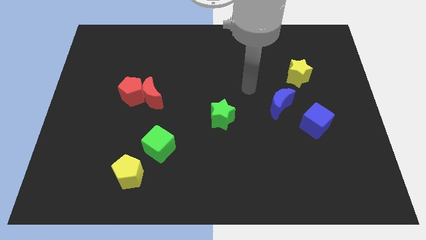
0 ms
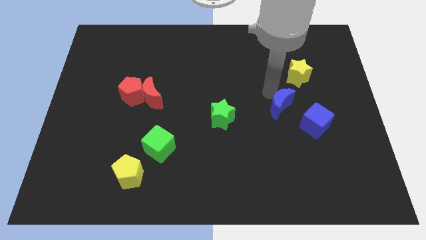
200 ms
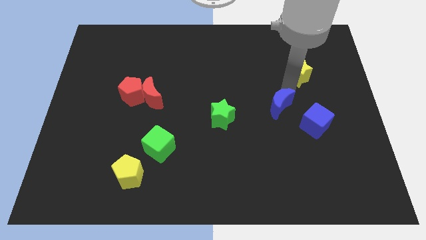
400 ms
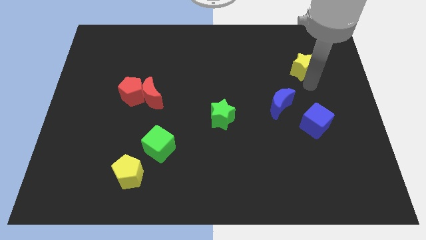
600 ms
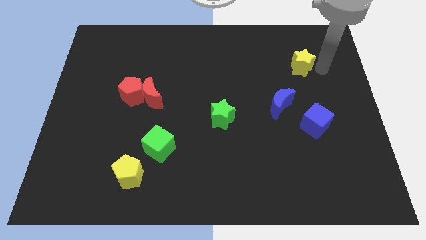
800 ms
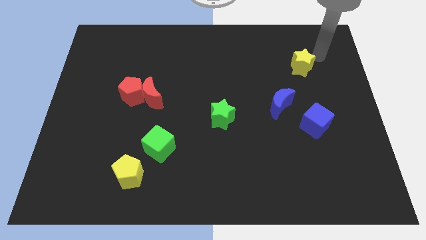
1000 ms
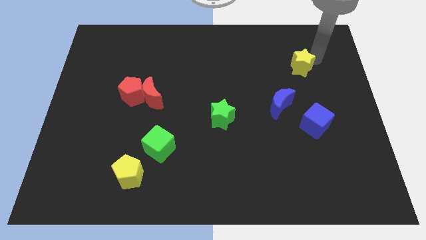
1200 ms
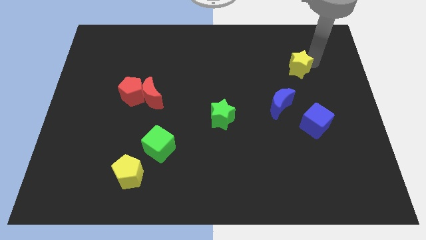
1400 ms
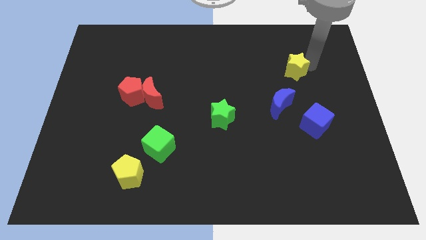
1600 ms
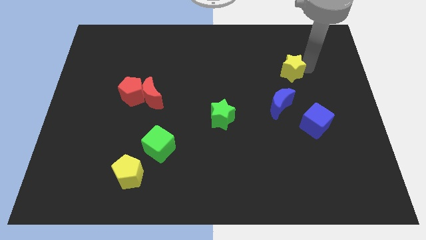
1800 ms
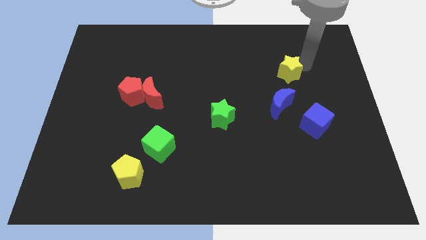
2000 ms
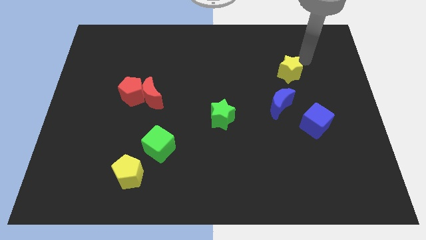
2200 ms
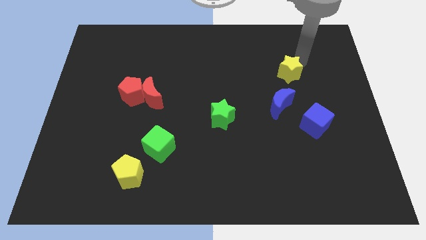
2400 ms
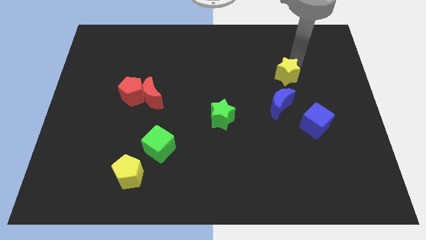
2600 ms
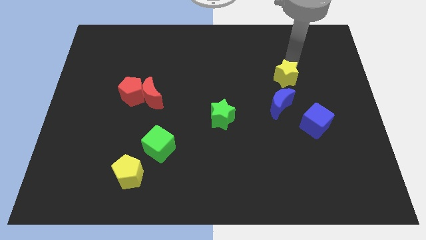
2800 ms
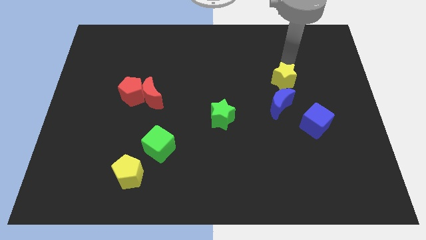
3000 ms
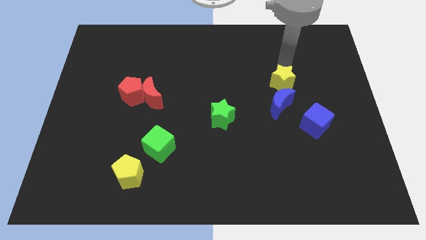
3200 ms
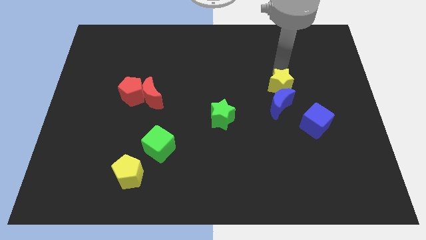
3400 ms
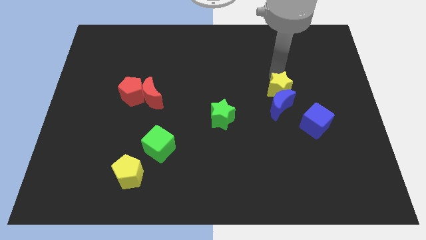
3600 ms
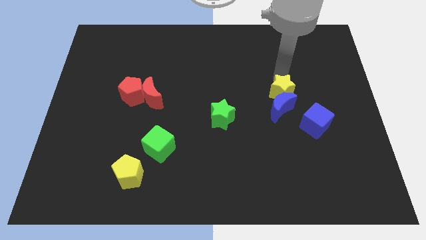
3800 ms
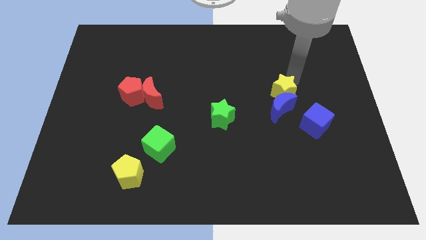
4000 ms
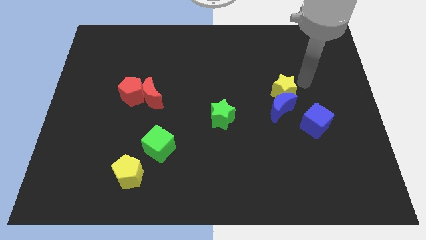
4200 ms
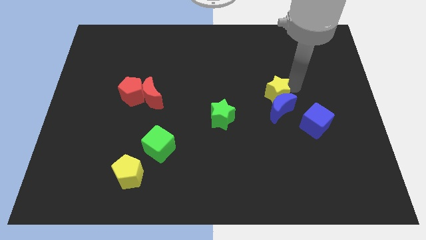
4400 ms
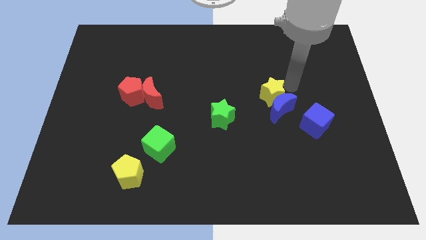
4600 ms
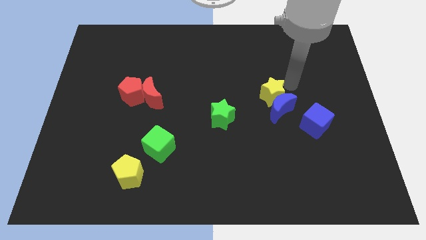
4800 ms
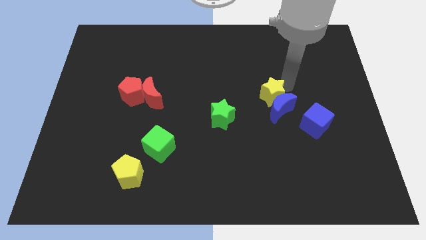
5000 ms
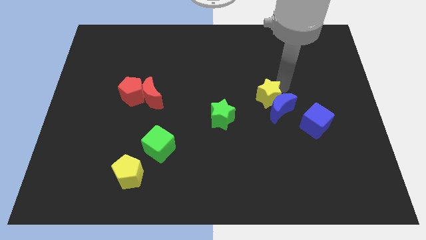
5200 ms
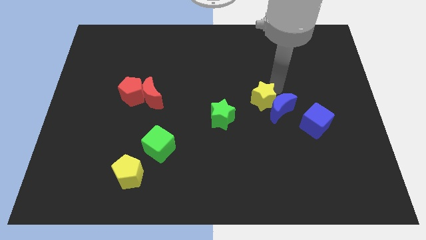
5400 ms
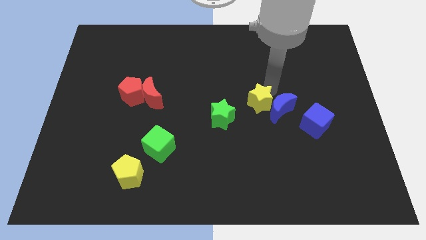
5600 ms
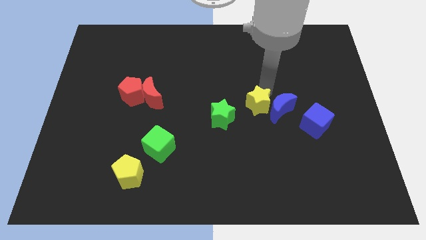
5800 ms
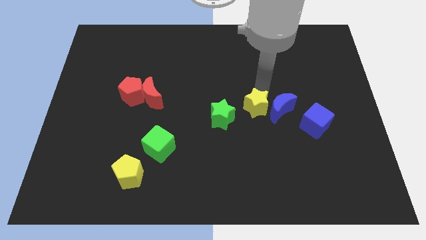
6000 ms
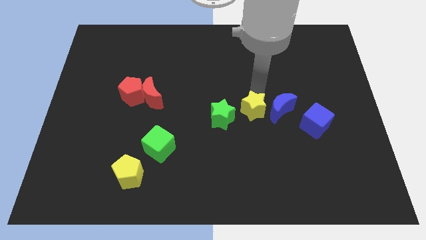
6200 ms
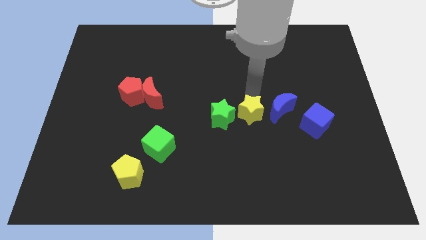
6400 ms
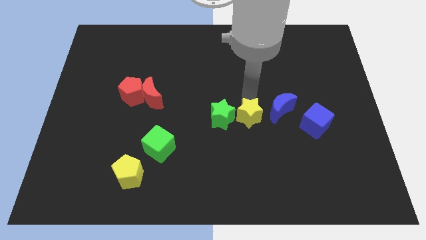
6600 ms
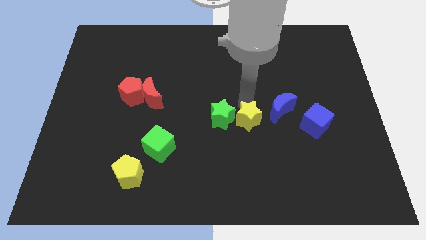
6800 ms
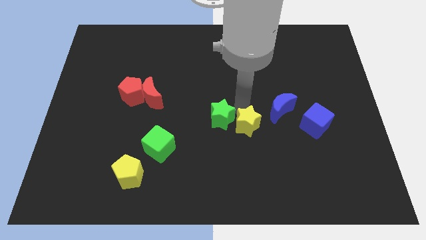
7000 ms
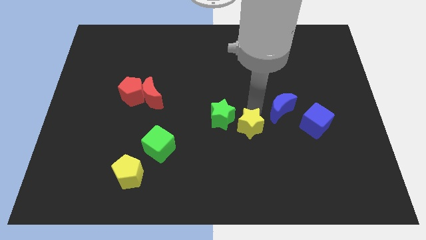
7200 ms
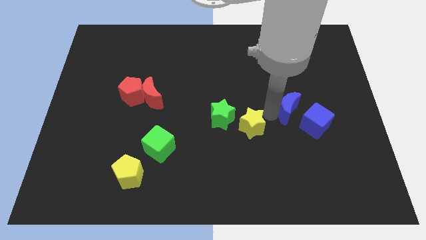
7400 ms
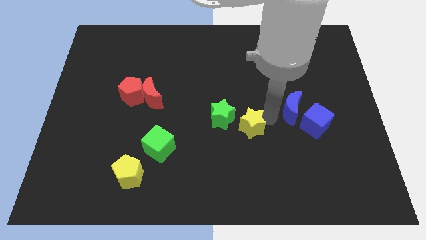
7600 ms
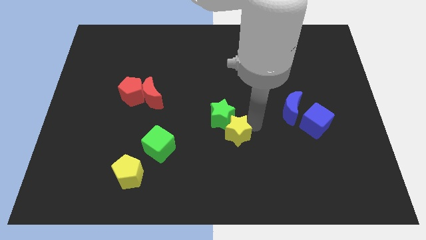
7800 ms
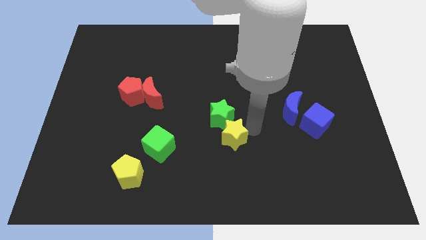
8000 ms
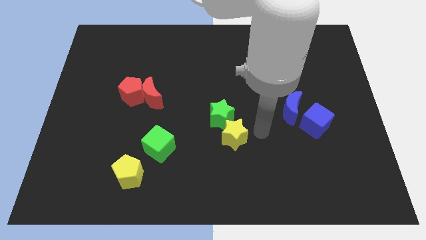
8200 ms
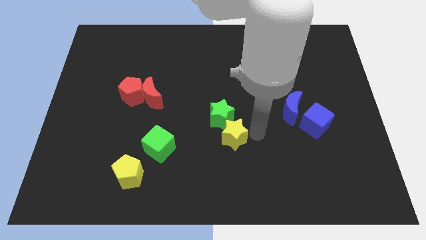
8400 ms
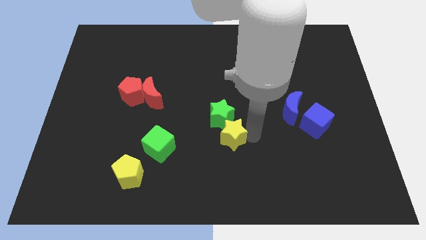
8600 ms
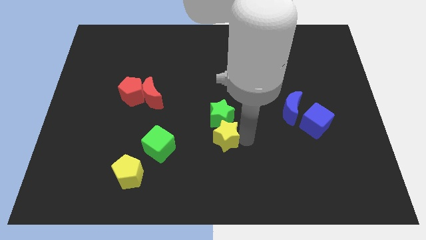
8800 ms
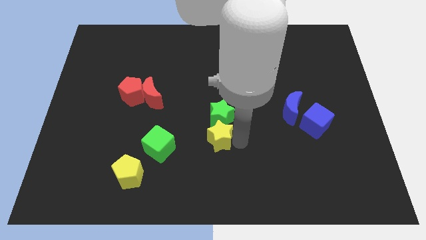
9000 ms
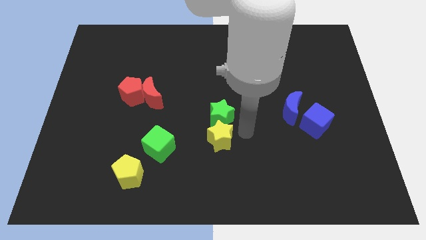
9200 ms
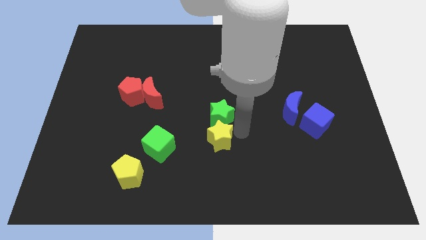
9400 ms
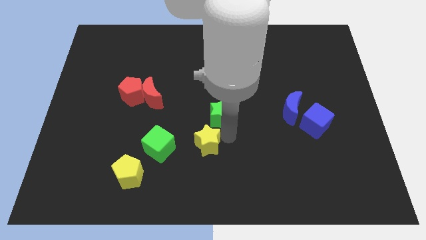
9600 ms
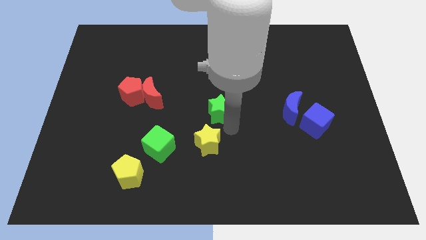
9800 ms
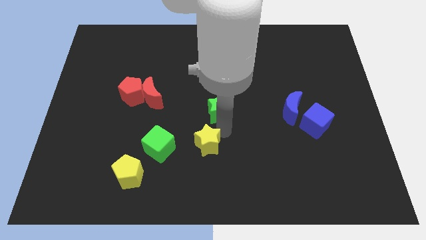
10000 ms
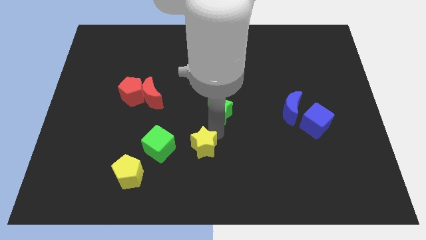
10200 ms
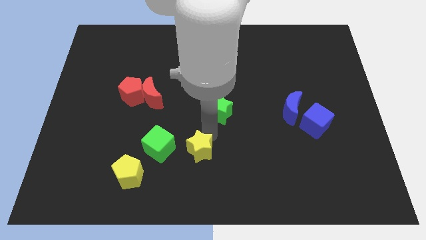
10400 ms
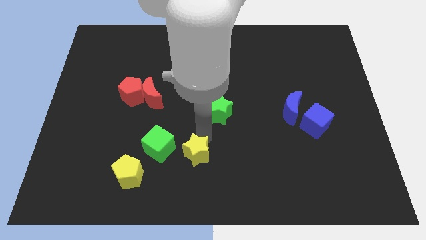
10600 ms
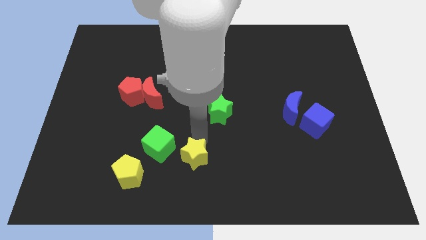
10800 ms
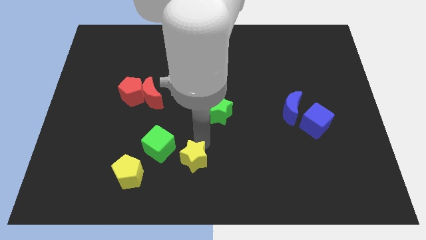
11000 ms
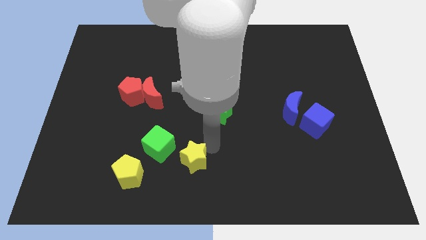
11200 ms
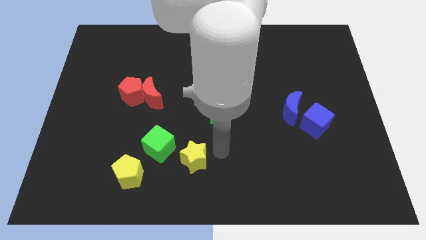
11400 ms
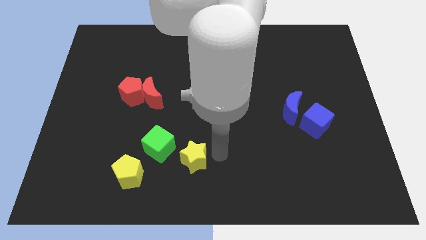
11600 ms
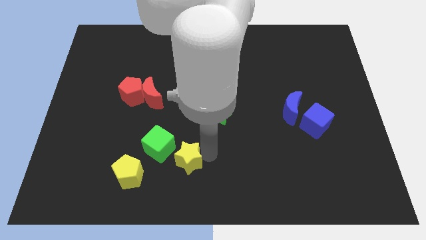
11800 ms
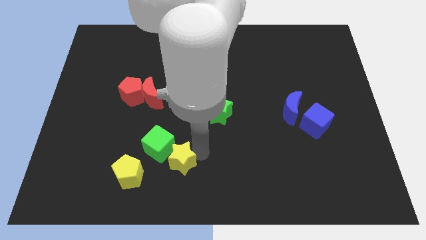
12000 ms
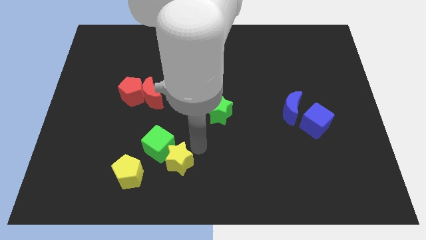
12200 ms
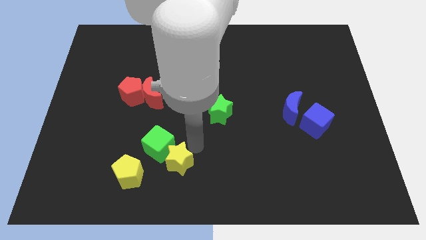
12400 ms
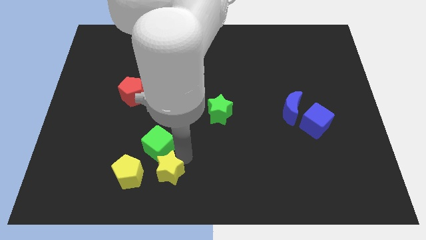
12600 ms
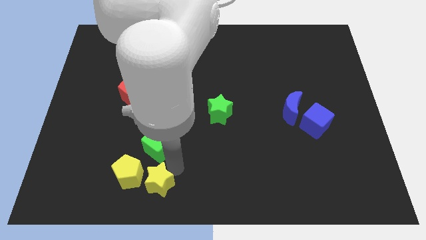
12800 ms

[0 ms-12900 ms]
put the yellow star to the yellow pentagon

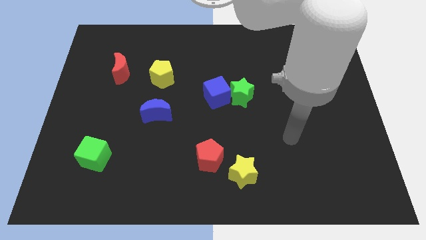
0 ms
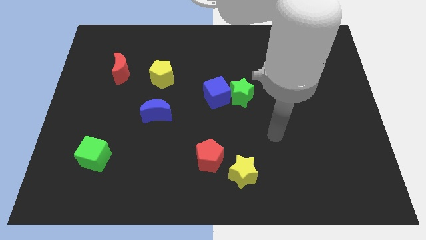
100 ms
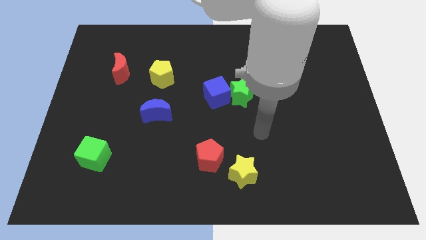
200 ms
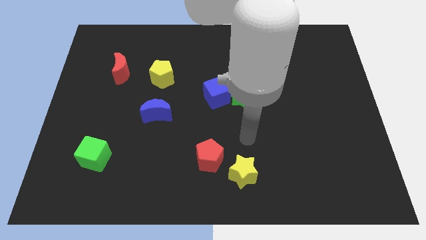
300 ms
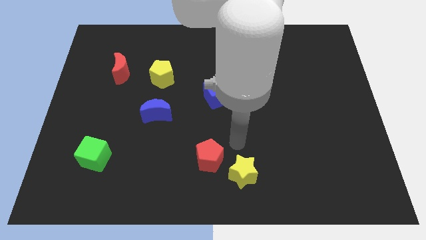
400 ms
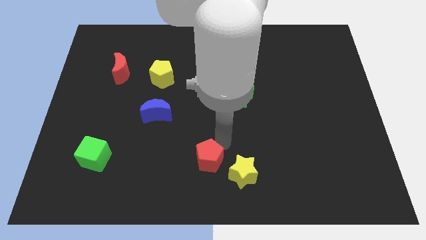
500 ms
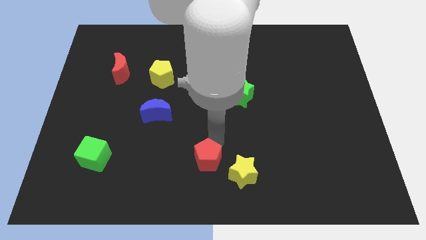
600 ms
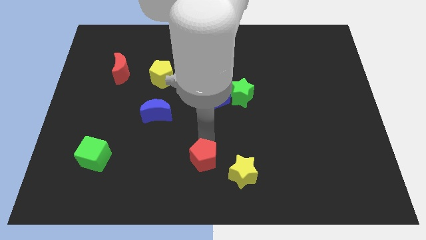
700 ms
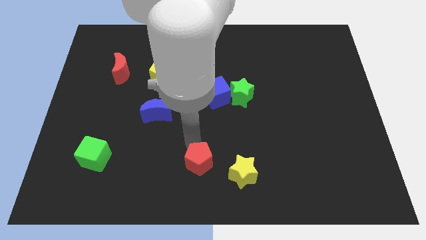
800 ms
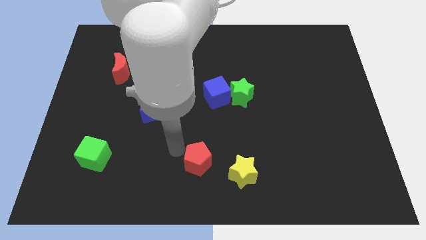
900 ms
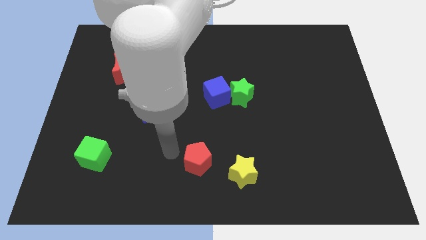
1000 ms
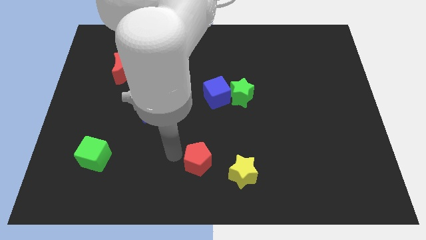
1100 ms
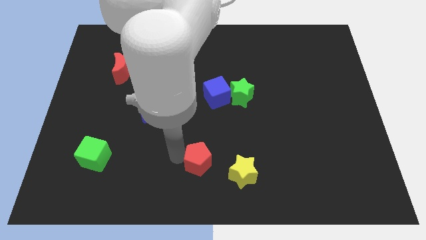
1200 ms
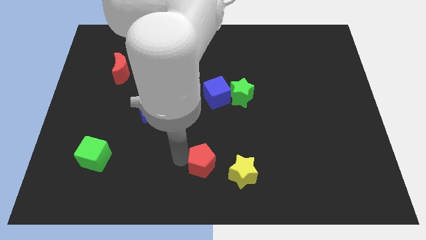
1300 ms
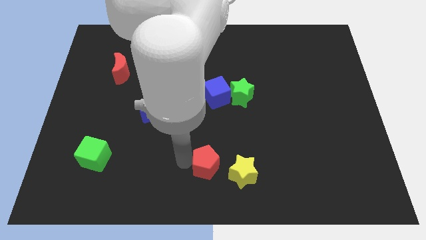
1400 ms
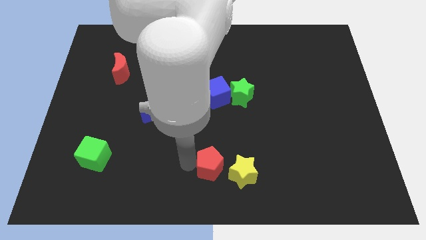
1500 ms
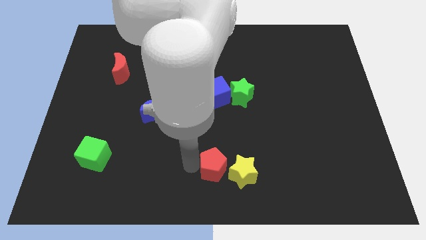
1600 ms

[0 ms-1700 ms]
slide the red pentagon close to the yellow star
